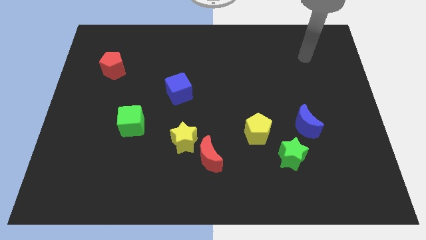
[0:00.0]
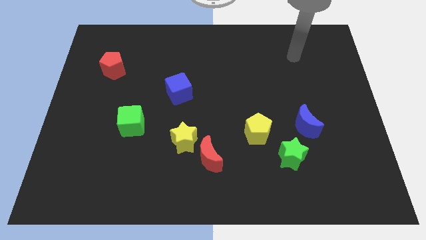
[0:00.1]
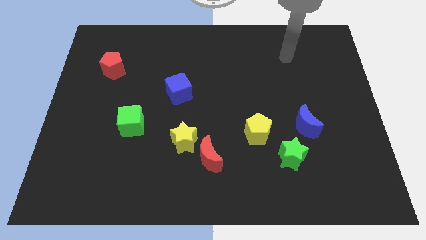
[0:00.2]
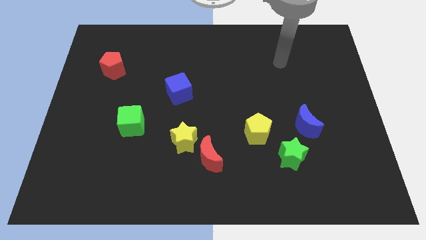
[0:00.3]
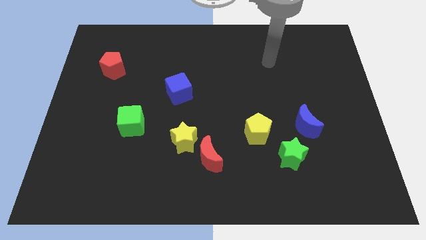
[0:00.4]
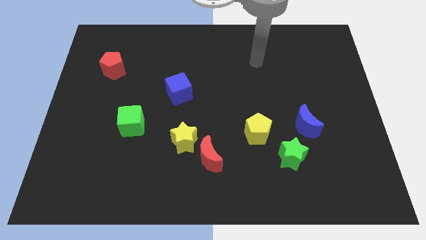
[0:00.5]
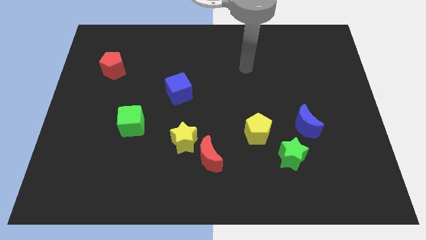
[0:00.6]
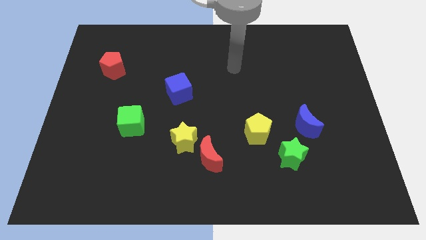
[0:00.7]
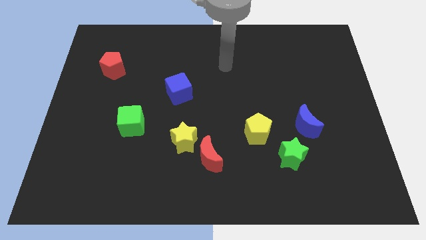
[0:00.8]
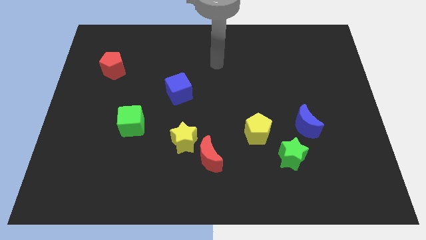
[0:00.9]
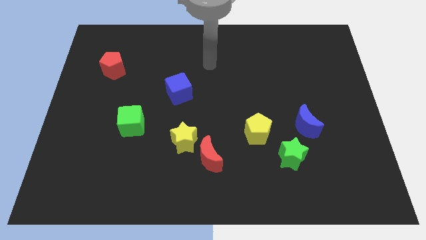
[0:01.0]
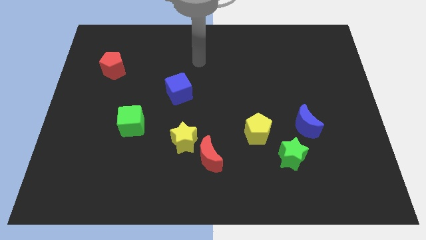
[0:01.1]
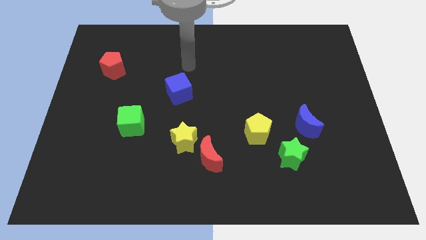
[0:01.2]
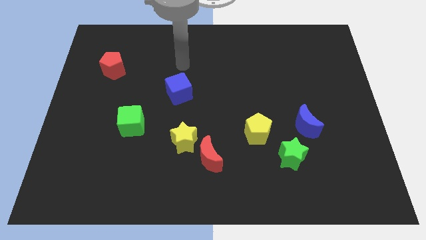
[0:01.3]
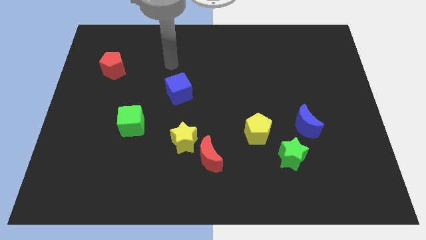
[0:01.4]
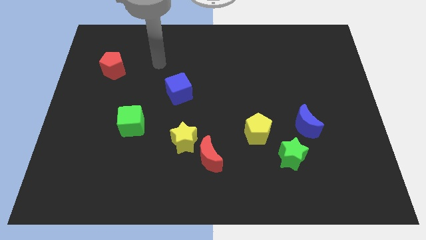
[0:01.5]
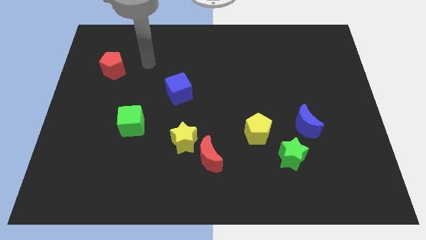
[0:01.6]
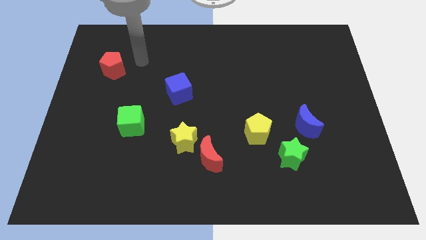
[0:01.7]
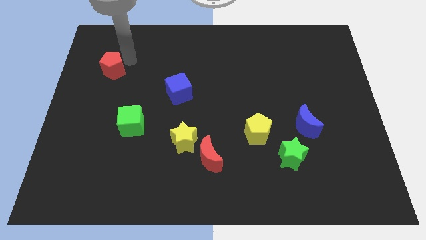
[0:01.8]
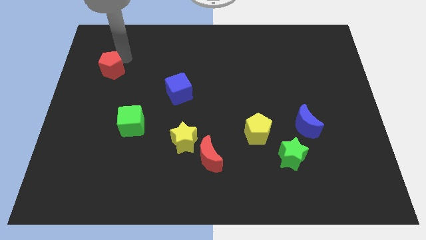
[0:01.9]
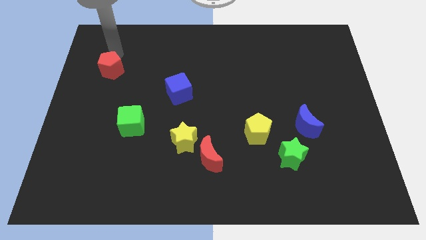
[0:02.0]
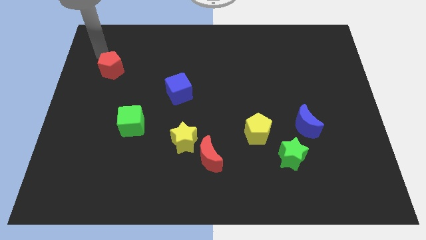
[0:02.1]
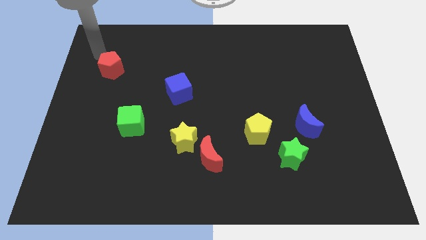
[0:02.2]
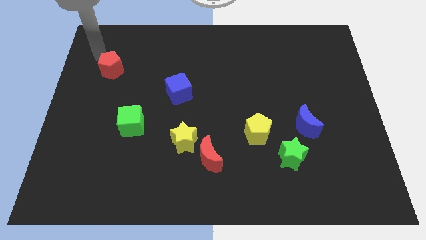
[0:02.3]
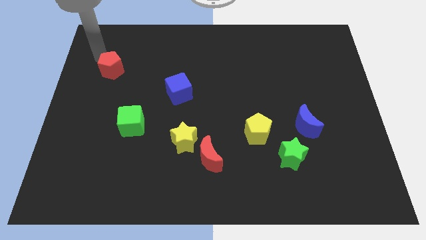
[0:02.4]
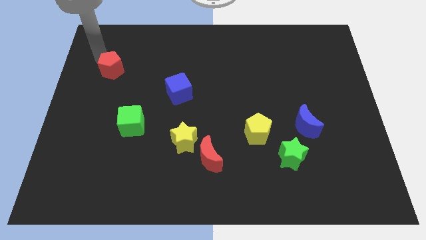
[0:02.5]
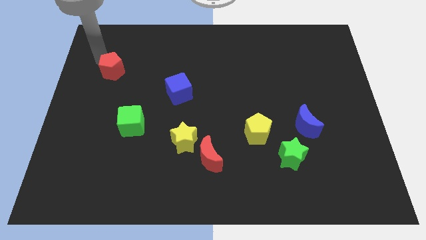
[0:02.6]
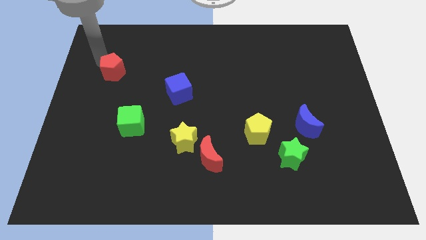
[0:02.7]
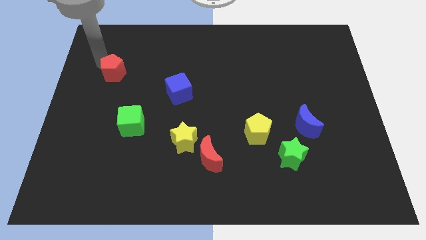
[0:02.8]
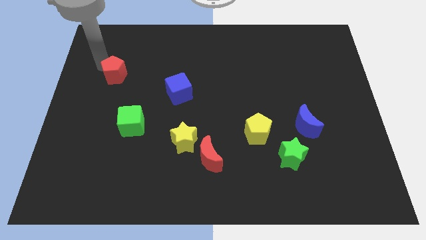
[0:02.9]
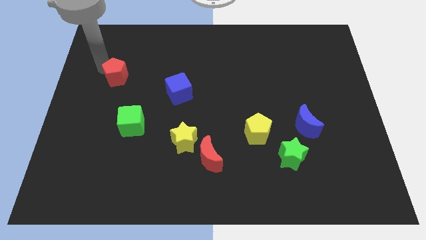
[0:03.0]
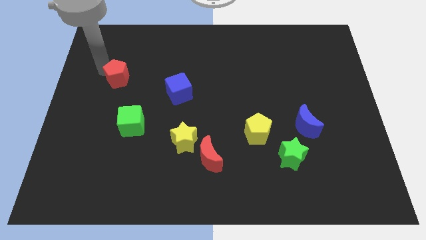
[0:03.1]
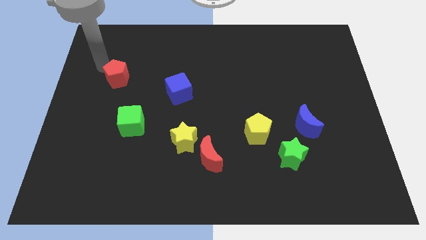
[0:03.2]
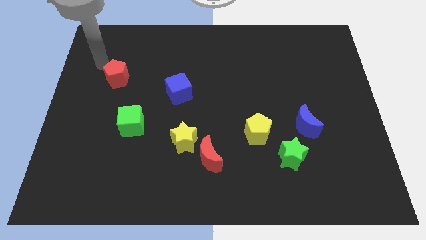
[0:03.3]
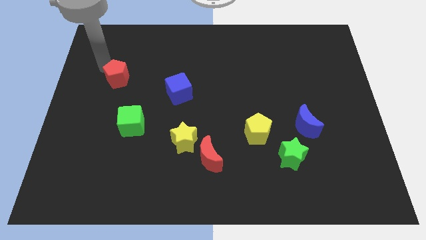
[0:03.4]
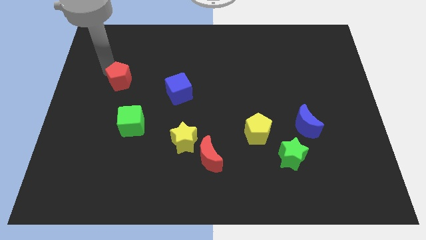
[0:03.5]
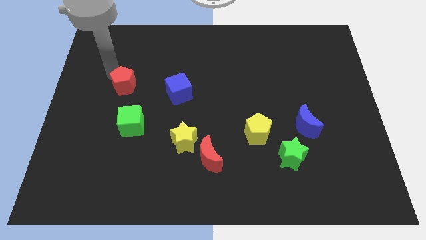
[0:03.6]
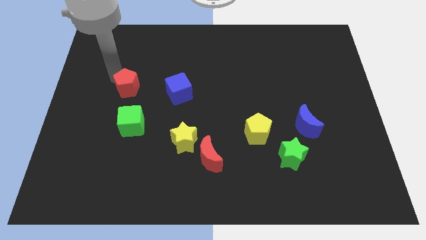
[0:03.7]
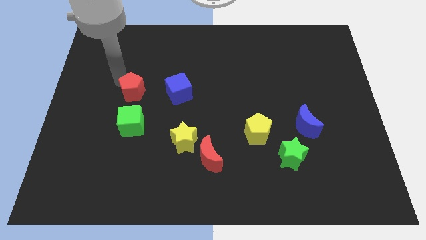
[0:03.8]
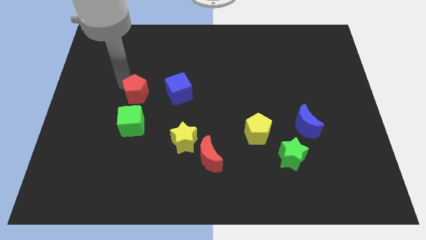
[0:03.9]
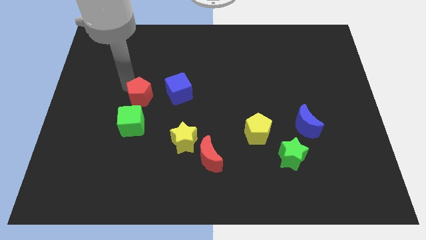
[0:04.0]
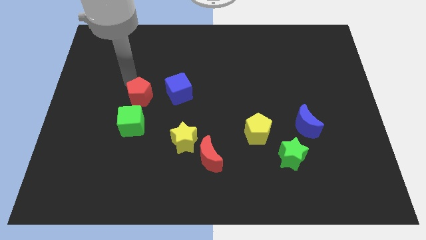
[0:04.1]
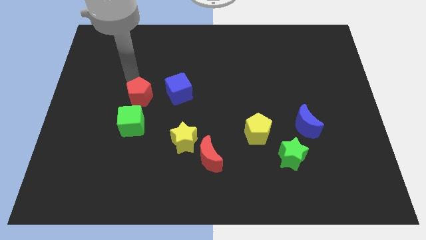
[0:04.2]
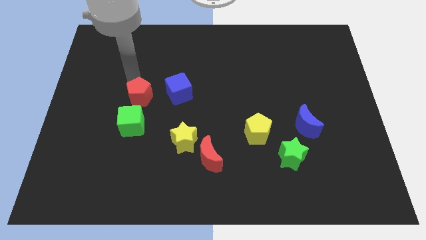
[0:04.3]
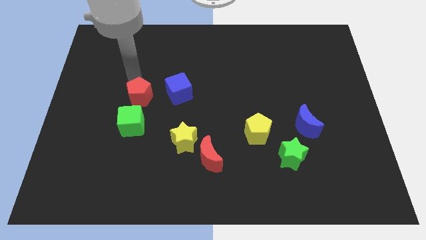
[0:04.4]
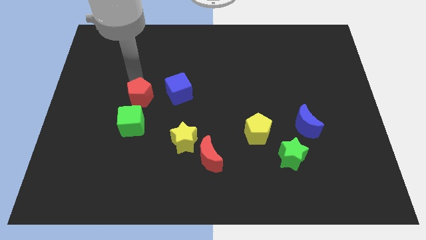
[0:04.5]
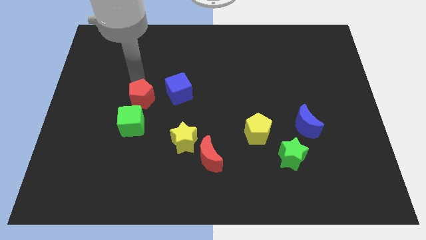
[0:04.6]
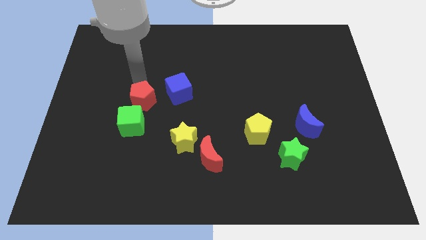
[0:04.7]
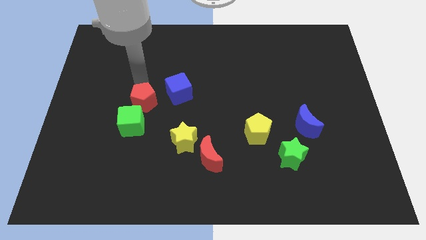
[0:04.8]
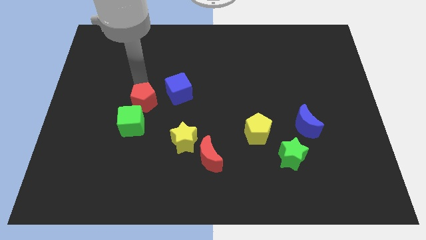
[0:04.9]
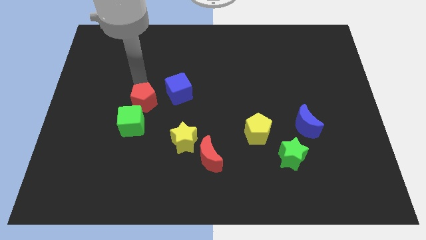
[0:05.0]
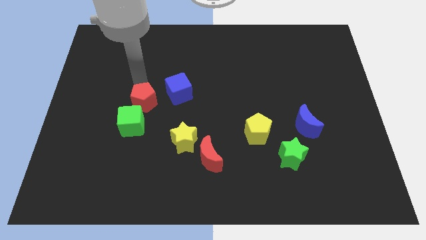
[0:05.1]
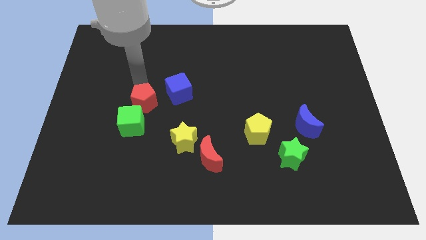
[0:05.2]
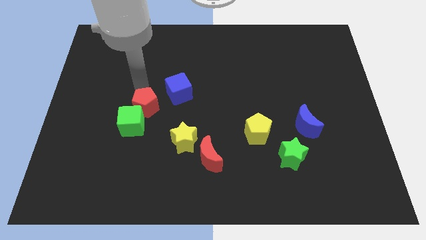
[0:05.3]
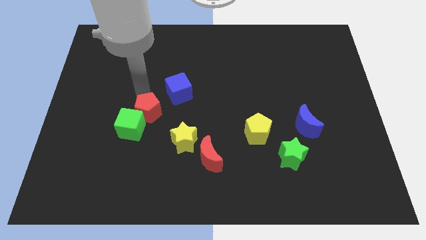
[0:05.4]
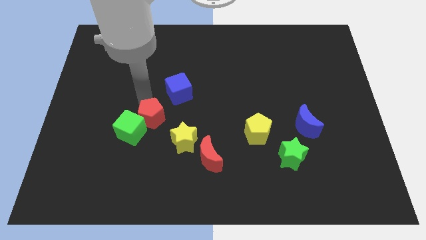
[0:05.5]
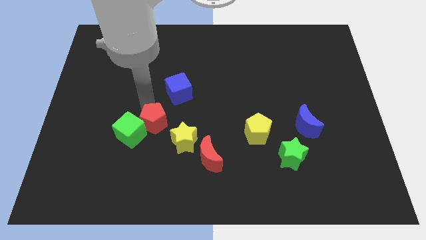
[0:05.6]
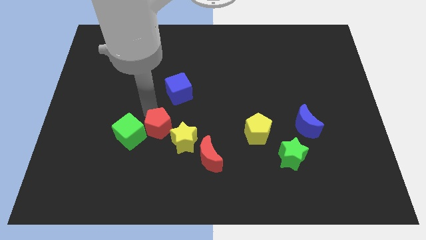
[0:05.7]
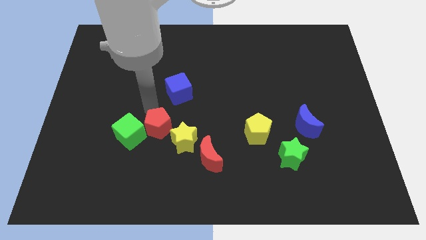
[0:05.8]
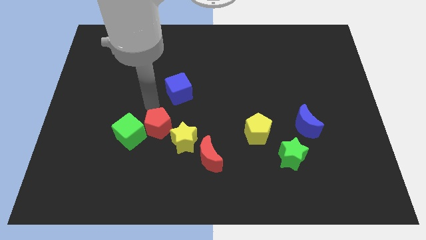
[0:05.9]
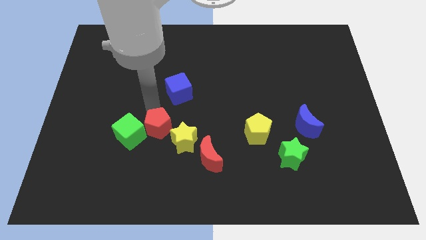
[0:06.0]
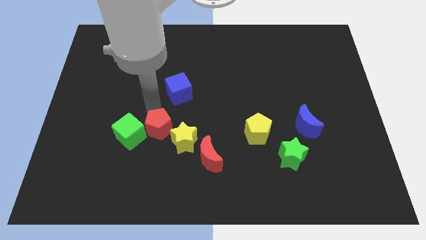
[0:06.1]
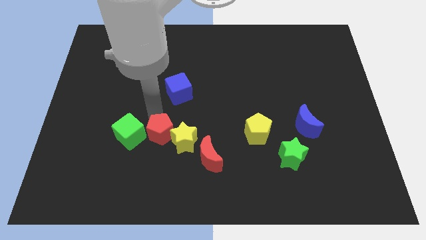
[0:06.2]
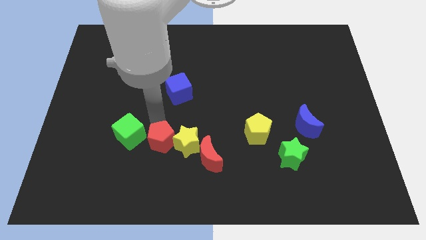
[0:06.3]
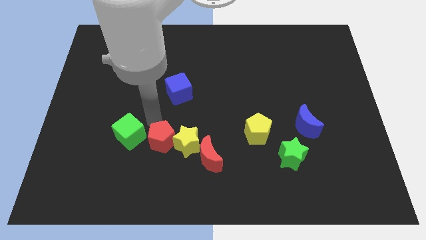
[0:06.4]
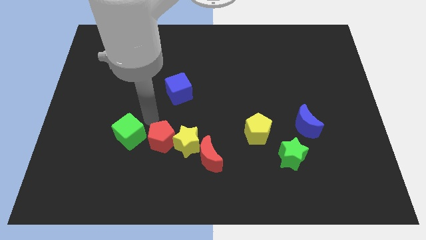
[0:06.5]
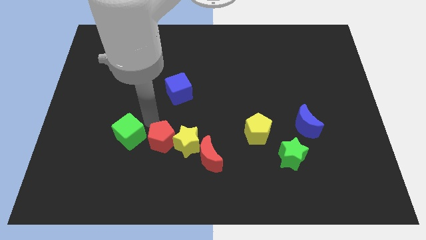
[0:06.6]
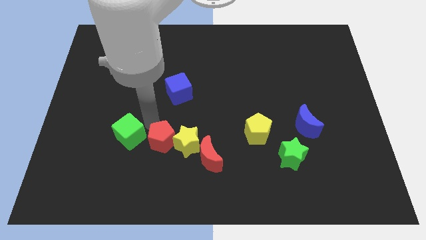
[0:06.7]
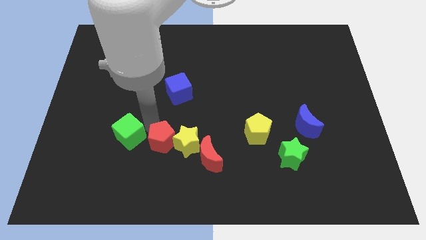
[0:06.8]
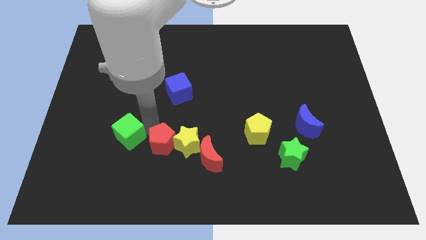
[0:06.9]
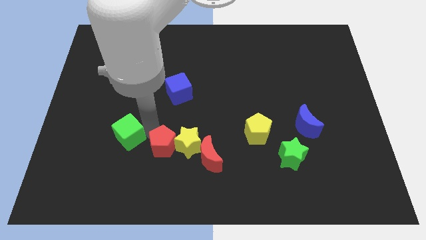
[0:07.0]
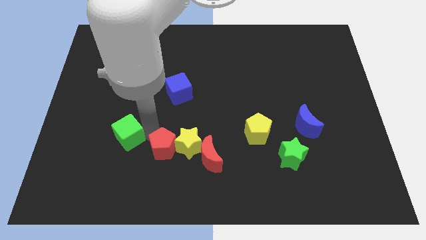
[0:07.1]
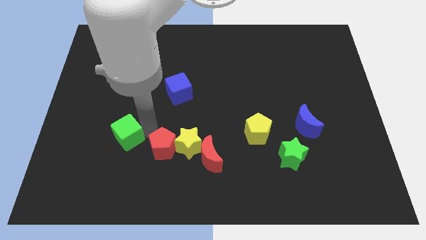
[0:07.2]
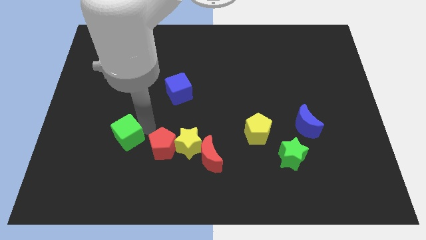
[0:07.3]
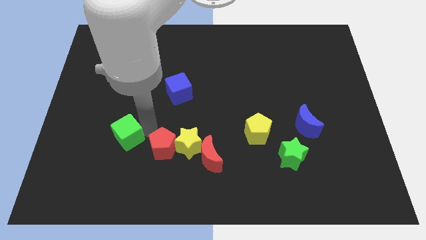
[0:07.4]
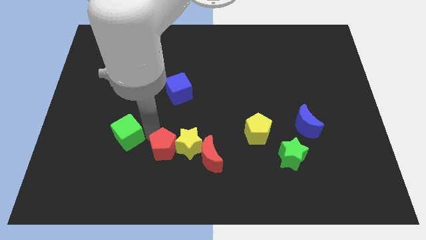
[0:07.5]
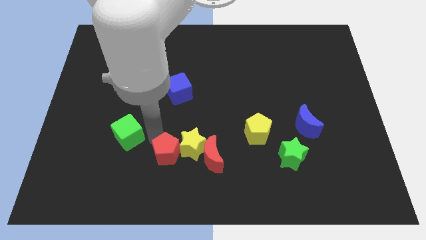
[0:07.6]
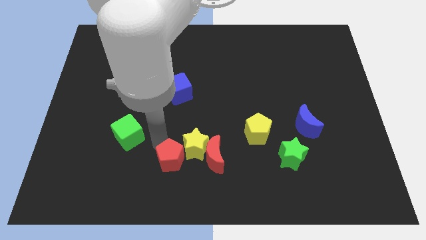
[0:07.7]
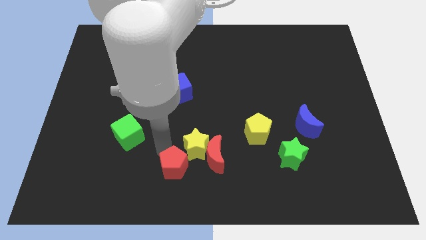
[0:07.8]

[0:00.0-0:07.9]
move the red pentagon to the bottom

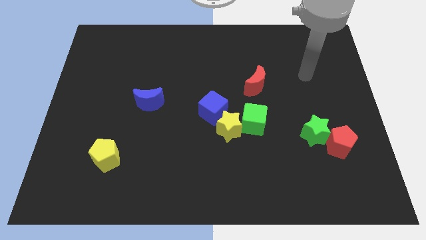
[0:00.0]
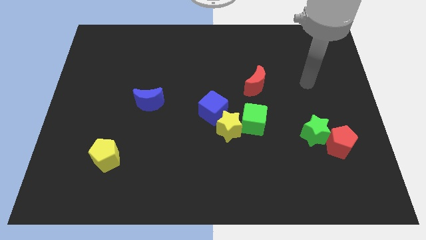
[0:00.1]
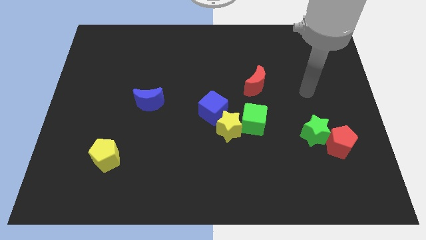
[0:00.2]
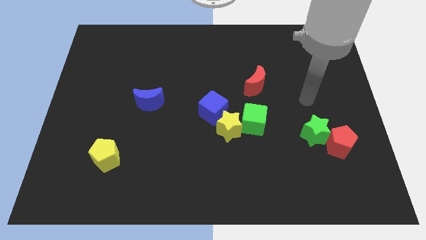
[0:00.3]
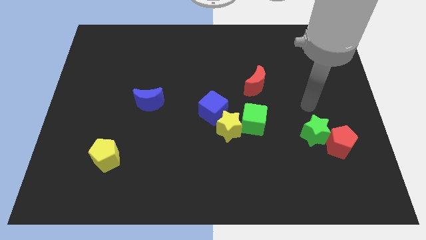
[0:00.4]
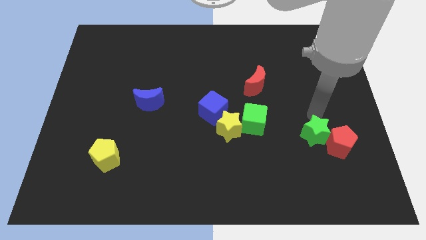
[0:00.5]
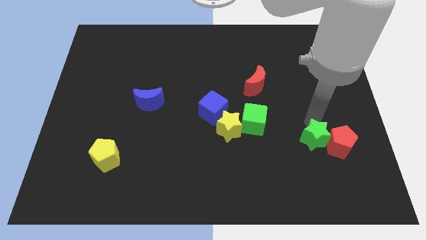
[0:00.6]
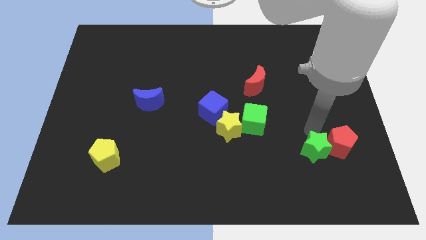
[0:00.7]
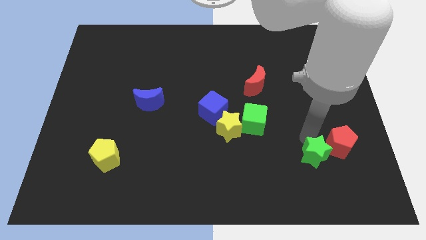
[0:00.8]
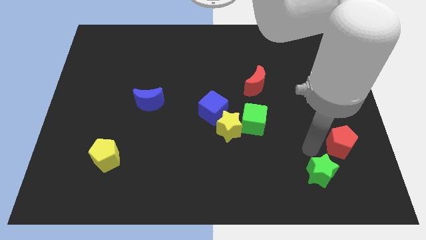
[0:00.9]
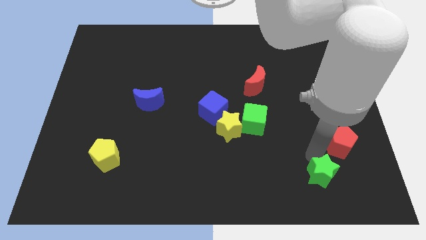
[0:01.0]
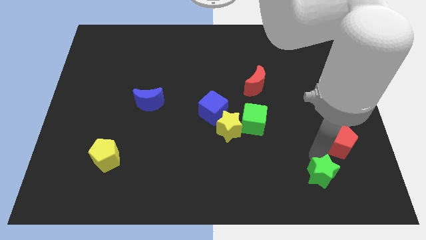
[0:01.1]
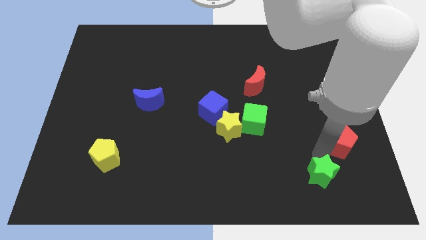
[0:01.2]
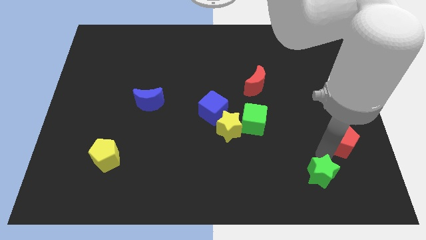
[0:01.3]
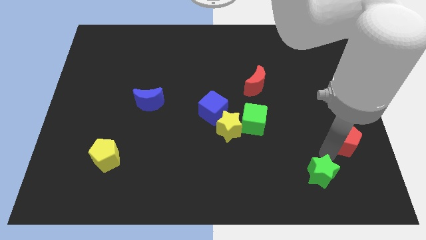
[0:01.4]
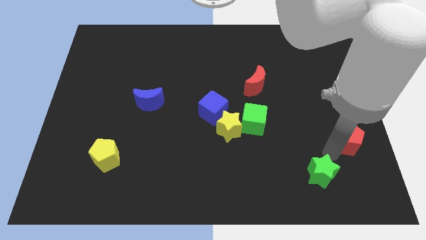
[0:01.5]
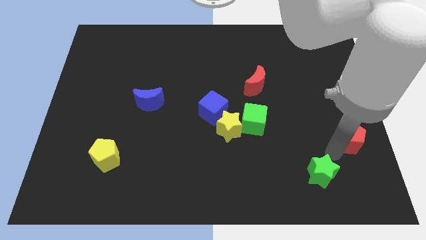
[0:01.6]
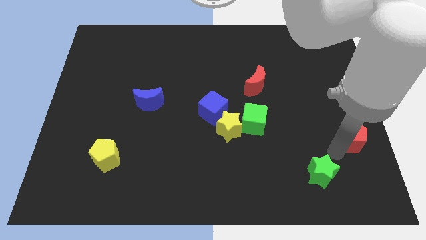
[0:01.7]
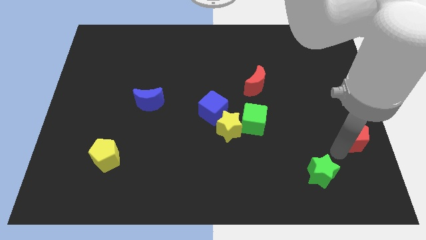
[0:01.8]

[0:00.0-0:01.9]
push the red pentagon to the center right
